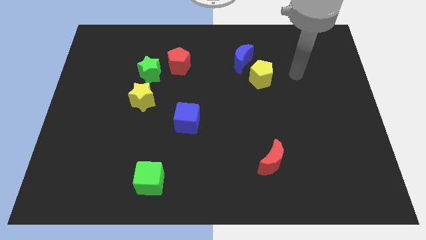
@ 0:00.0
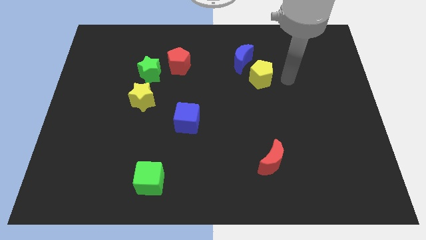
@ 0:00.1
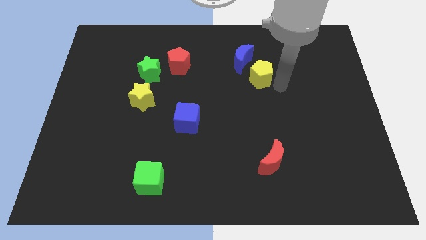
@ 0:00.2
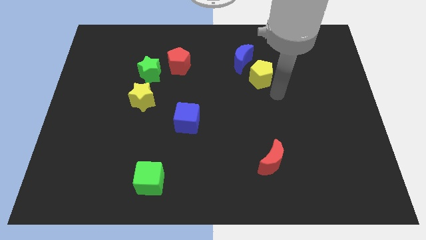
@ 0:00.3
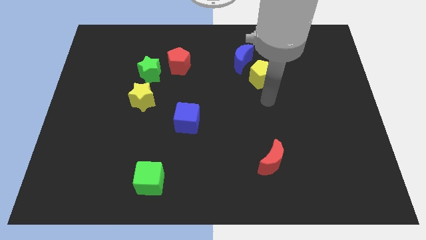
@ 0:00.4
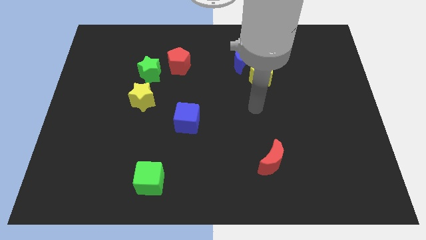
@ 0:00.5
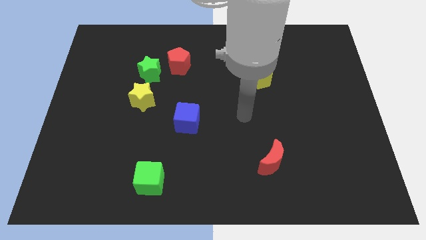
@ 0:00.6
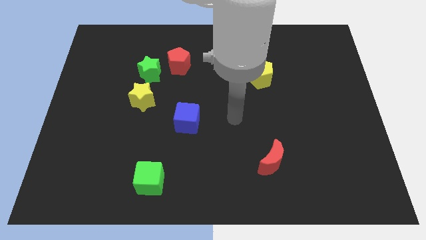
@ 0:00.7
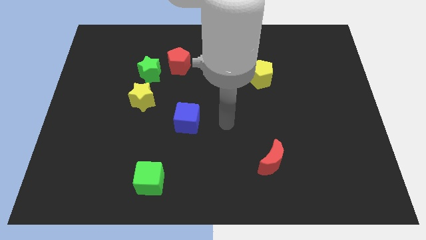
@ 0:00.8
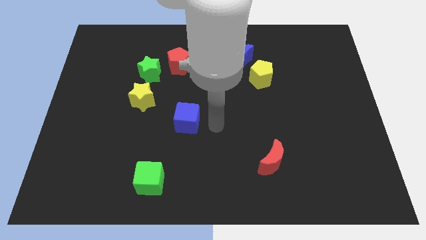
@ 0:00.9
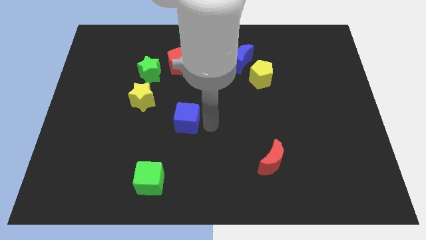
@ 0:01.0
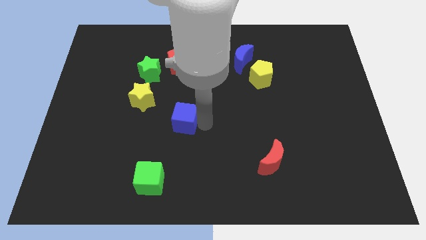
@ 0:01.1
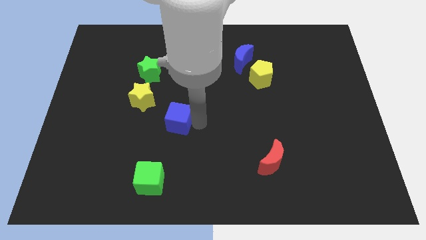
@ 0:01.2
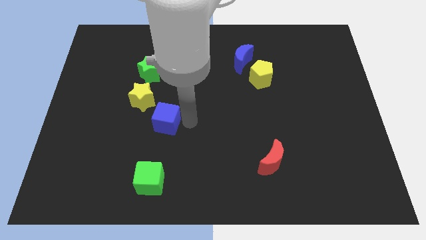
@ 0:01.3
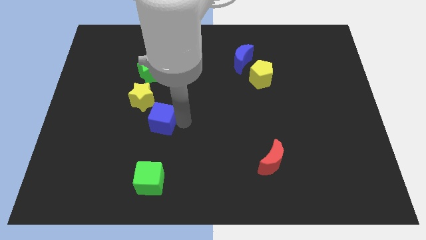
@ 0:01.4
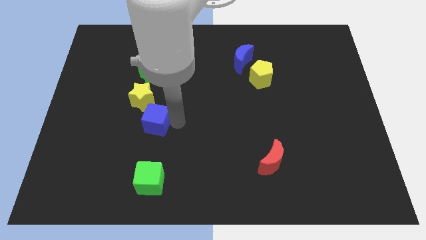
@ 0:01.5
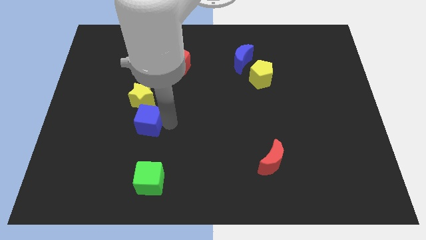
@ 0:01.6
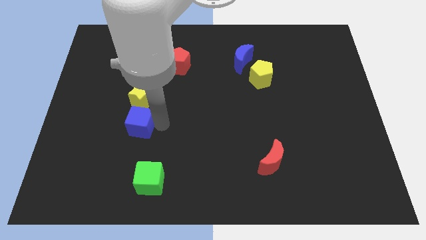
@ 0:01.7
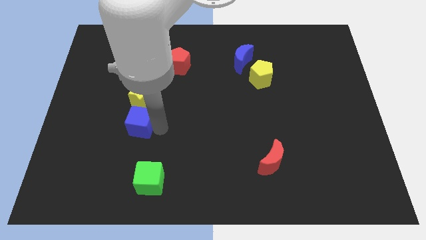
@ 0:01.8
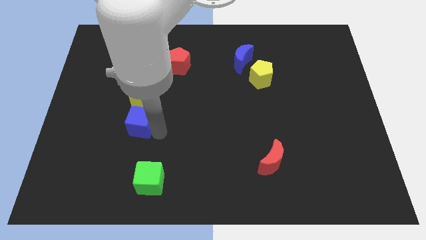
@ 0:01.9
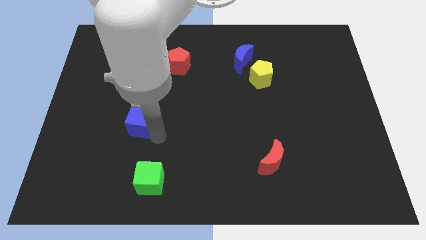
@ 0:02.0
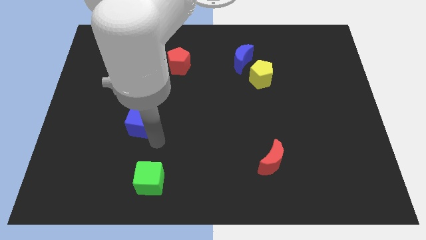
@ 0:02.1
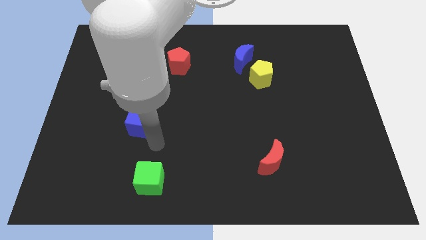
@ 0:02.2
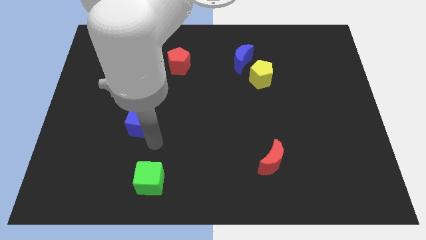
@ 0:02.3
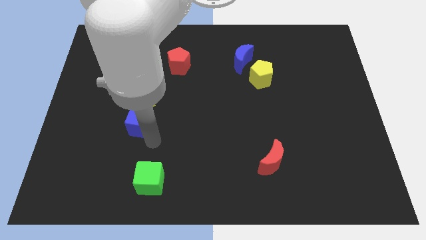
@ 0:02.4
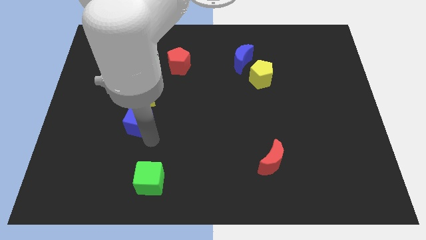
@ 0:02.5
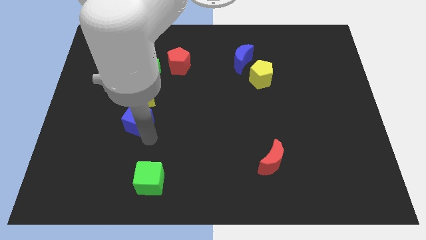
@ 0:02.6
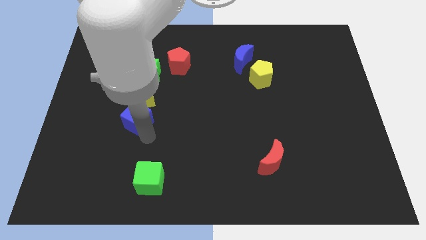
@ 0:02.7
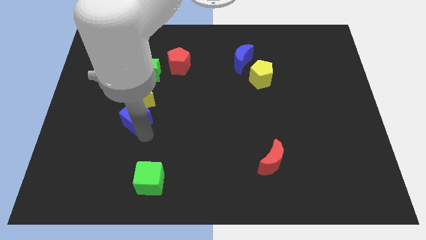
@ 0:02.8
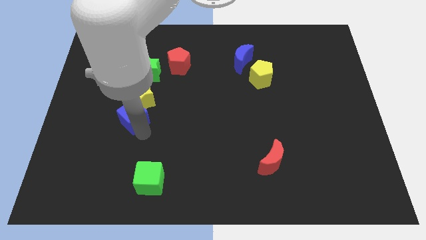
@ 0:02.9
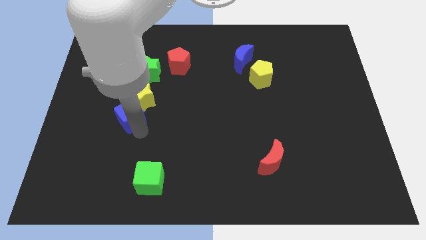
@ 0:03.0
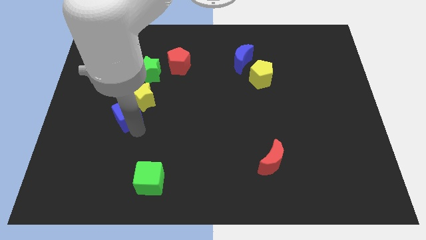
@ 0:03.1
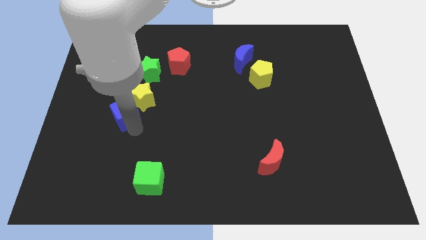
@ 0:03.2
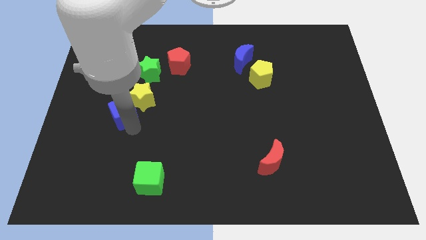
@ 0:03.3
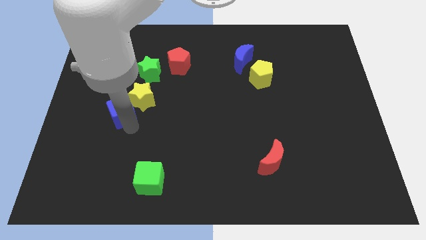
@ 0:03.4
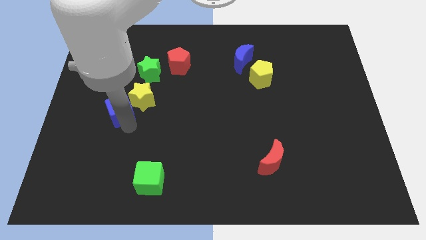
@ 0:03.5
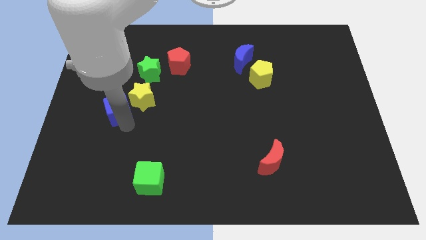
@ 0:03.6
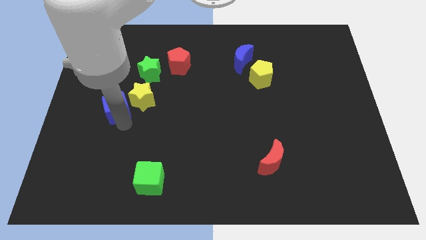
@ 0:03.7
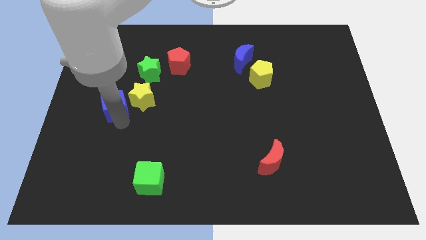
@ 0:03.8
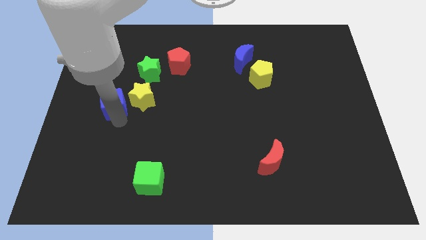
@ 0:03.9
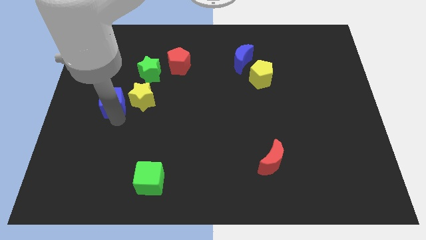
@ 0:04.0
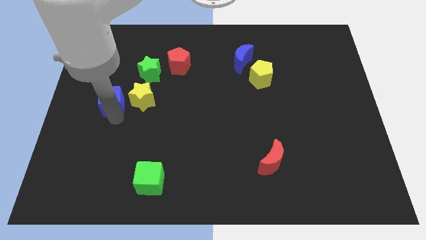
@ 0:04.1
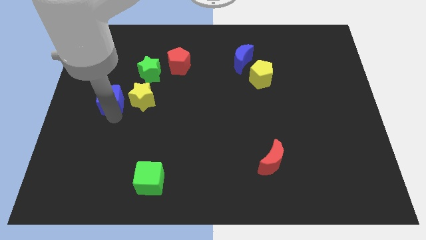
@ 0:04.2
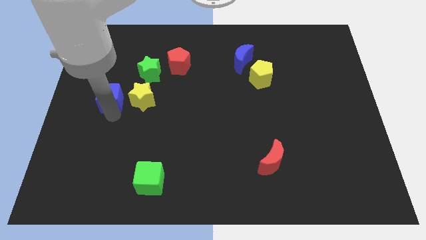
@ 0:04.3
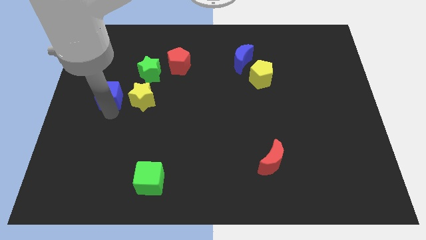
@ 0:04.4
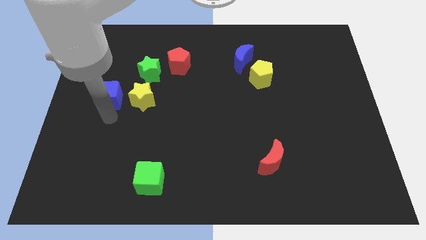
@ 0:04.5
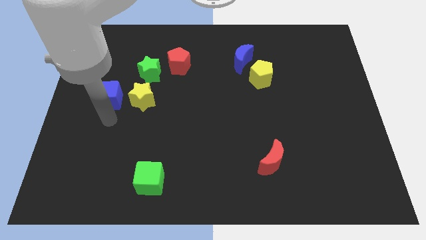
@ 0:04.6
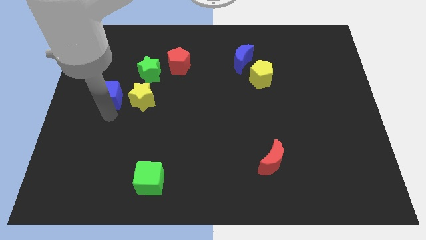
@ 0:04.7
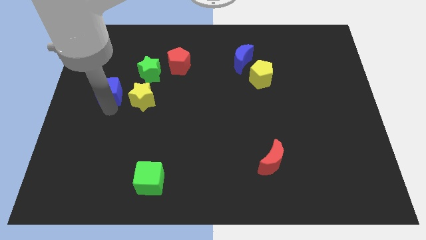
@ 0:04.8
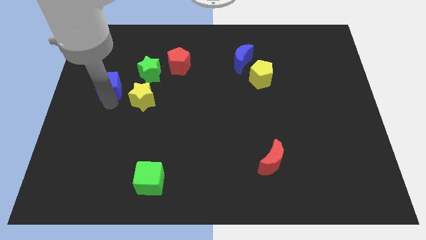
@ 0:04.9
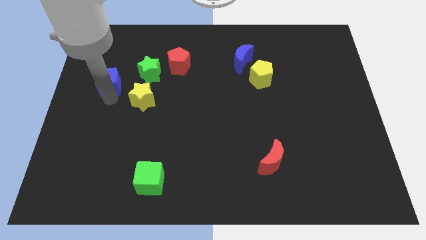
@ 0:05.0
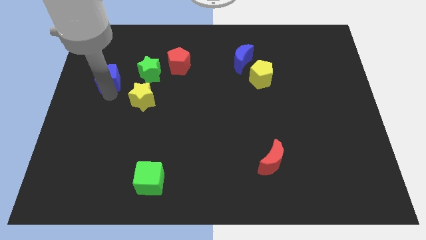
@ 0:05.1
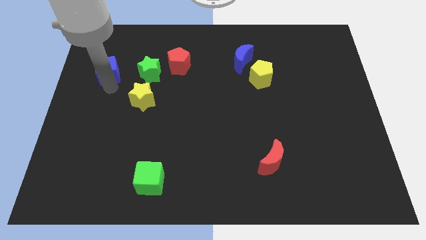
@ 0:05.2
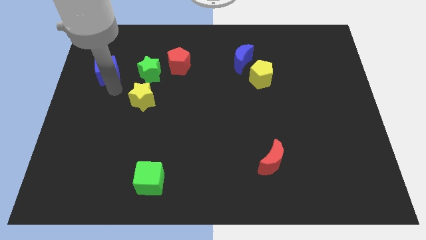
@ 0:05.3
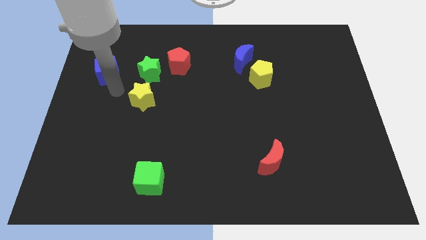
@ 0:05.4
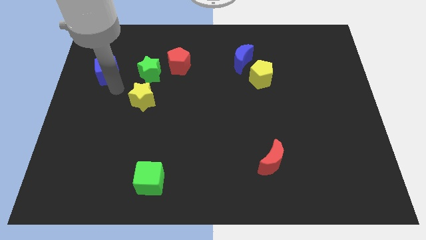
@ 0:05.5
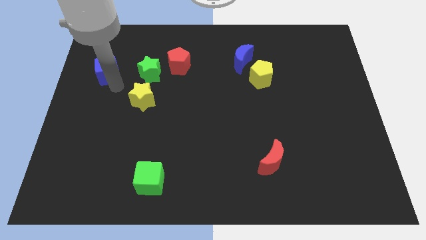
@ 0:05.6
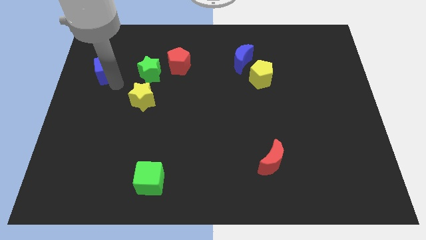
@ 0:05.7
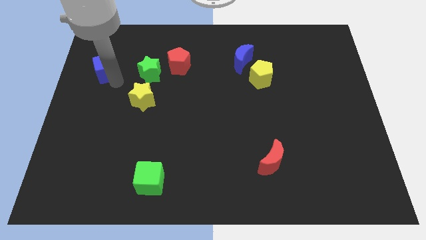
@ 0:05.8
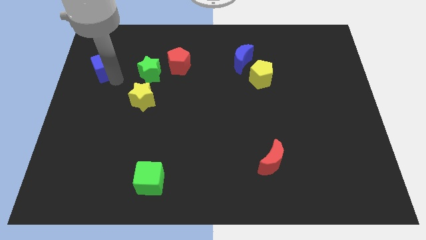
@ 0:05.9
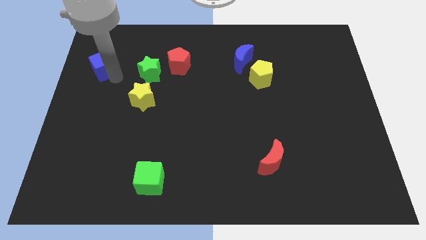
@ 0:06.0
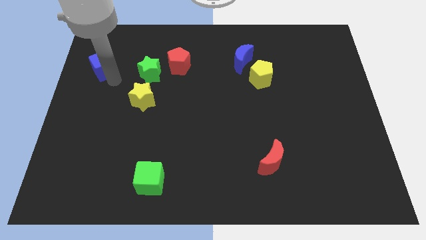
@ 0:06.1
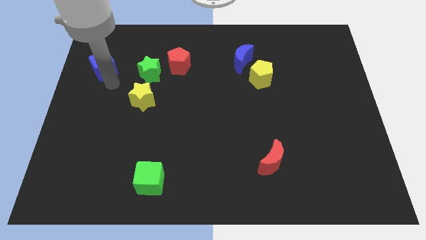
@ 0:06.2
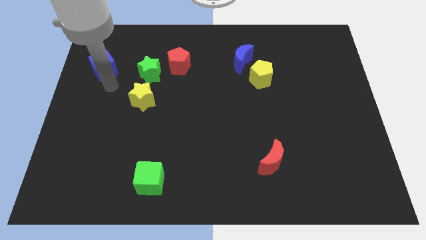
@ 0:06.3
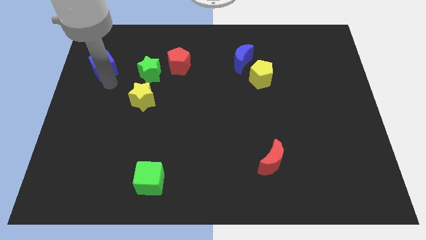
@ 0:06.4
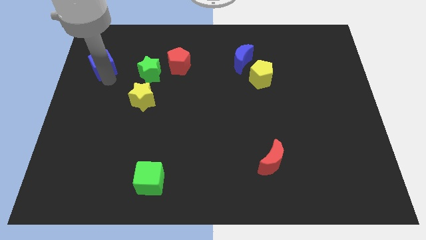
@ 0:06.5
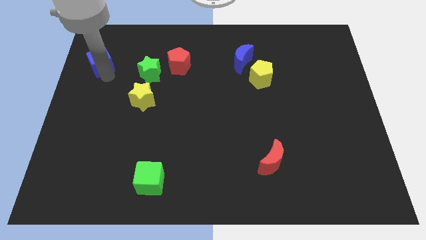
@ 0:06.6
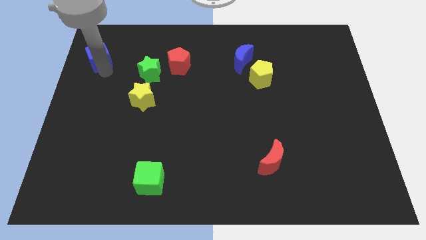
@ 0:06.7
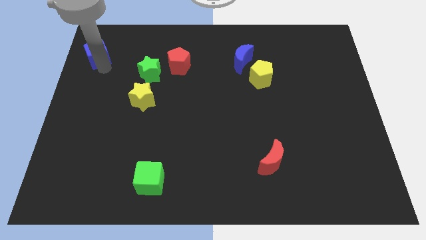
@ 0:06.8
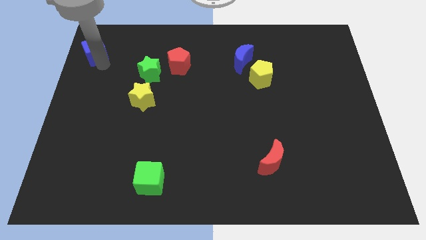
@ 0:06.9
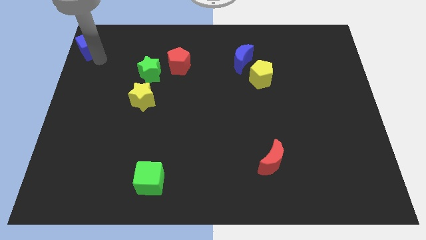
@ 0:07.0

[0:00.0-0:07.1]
push the blue cube to the top left of the board
